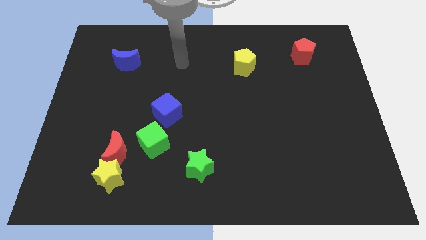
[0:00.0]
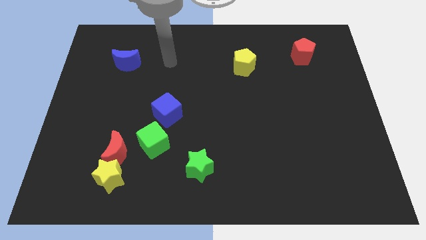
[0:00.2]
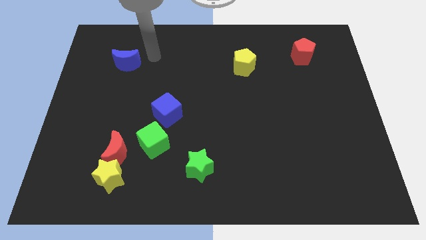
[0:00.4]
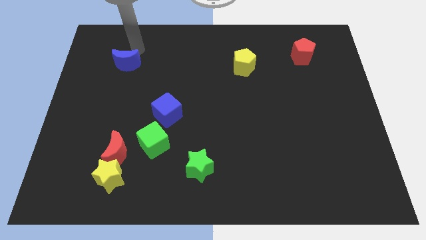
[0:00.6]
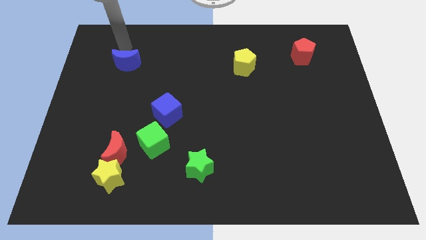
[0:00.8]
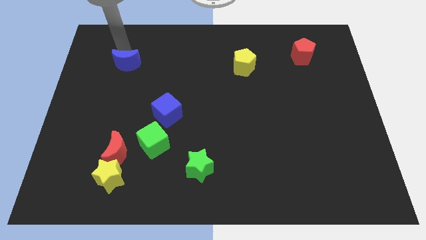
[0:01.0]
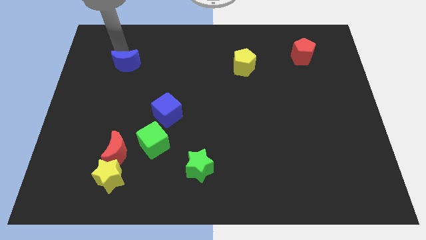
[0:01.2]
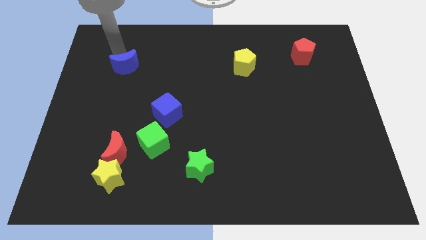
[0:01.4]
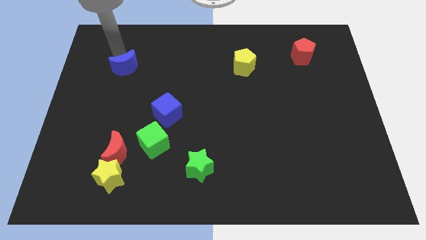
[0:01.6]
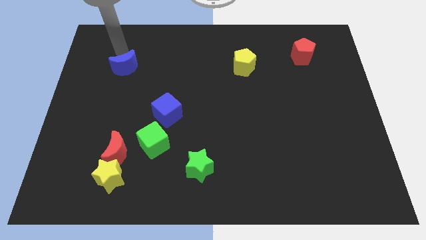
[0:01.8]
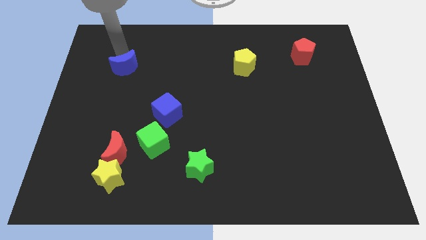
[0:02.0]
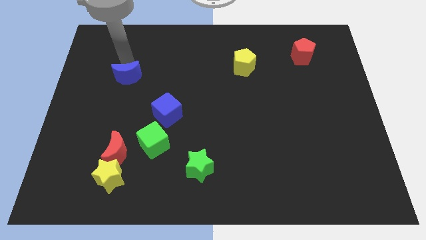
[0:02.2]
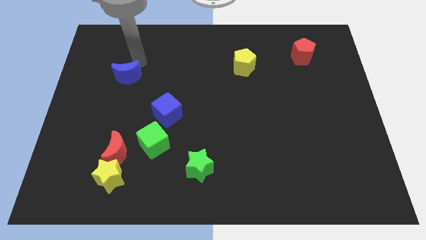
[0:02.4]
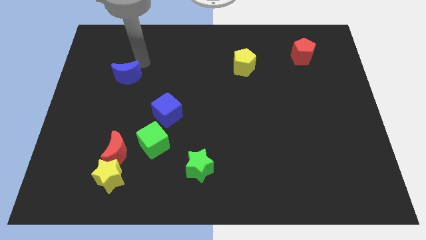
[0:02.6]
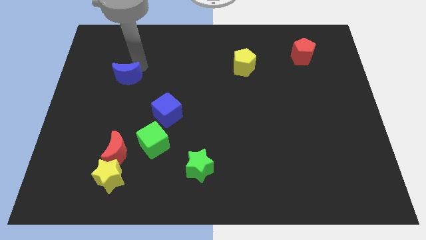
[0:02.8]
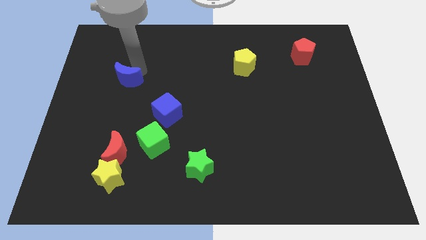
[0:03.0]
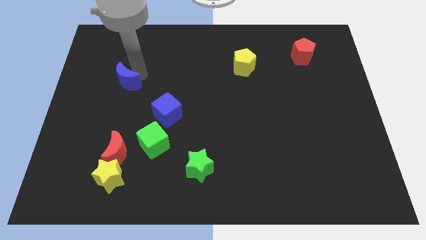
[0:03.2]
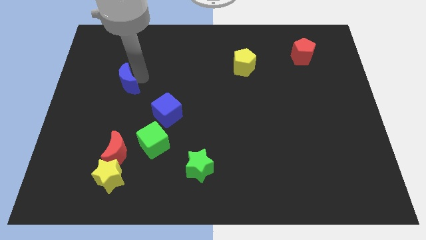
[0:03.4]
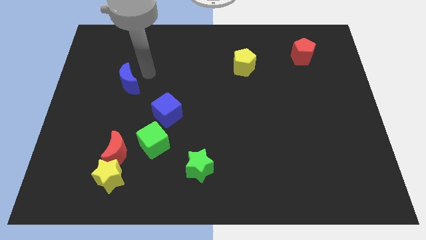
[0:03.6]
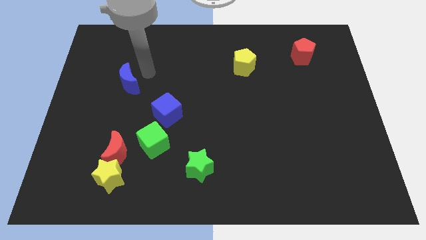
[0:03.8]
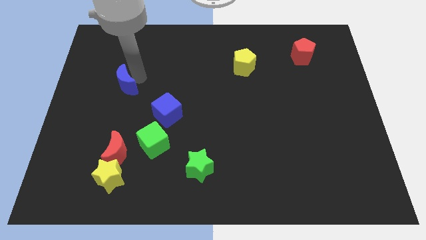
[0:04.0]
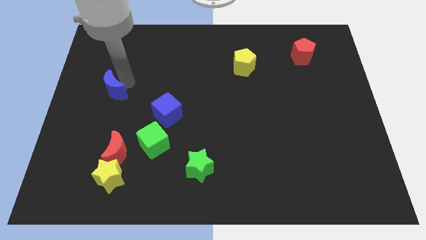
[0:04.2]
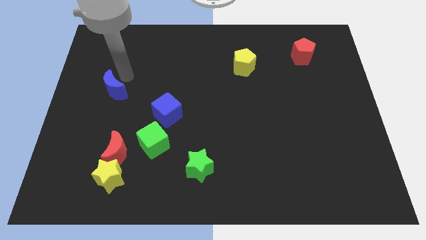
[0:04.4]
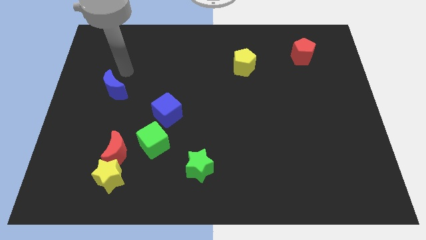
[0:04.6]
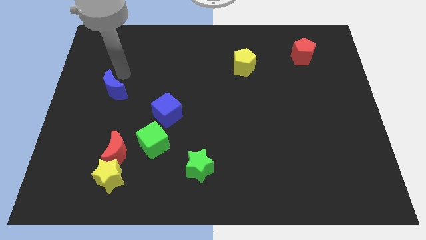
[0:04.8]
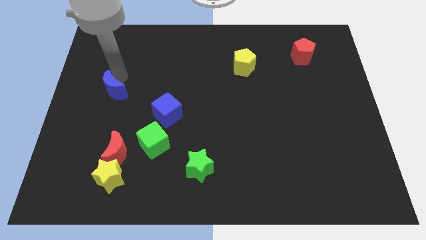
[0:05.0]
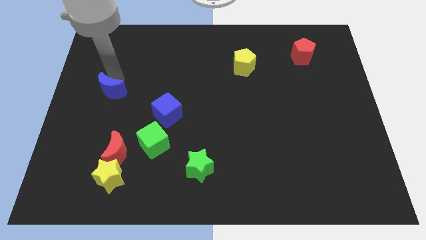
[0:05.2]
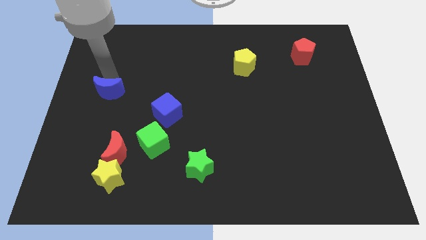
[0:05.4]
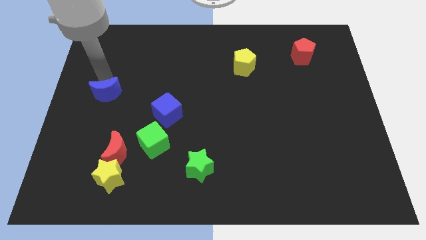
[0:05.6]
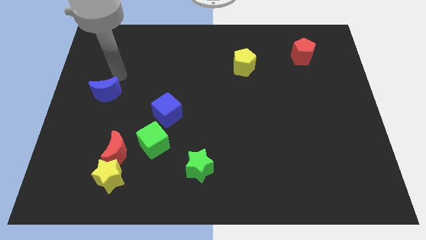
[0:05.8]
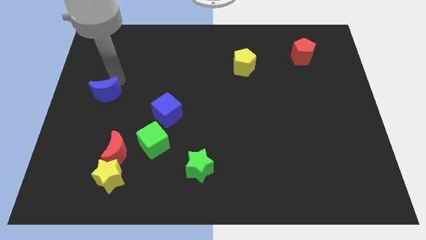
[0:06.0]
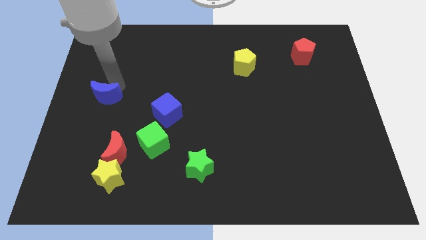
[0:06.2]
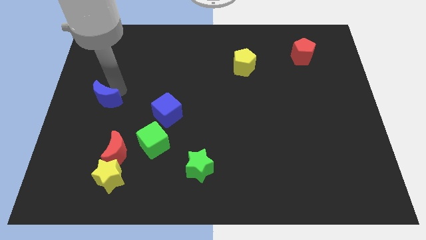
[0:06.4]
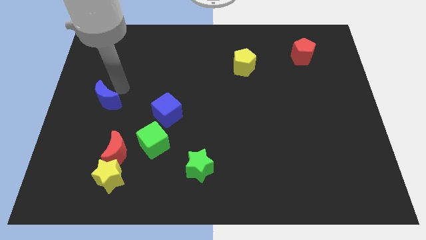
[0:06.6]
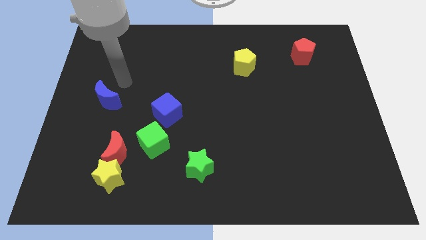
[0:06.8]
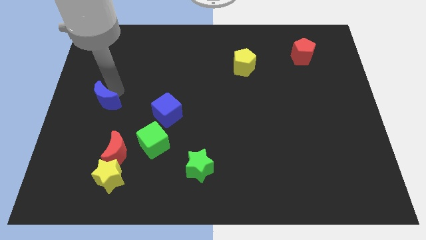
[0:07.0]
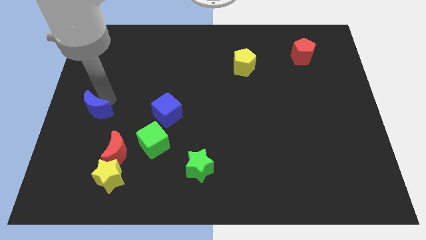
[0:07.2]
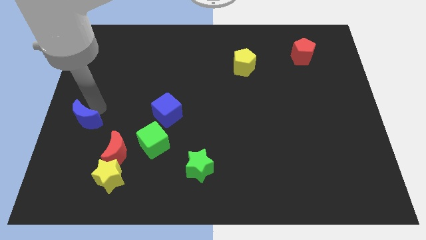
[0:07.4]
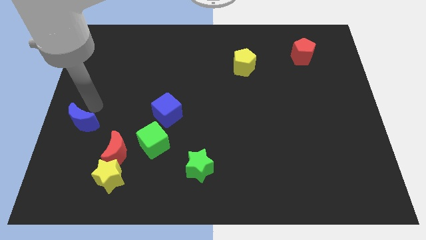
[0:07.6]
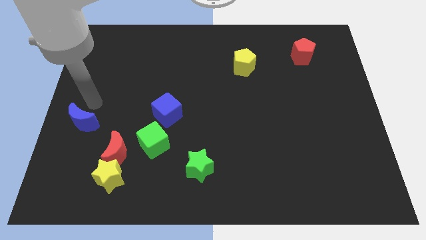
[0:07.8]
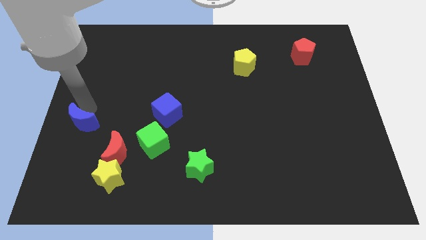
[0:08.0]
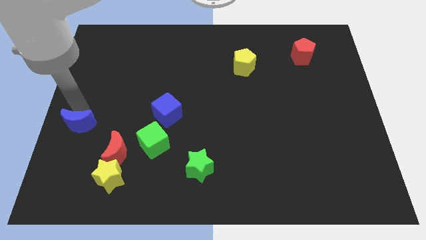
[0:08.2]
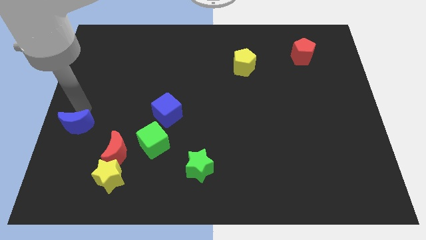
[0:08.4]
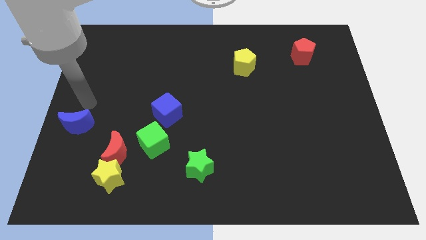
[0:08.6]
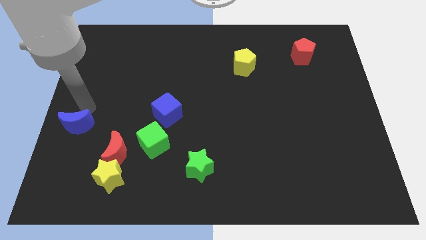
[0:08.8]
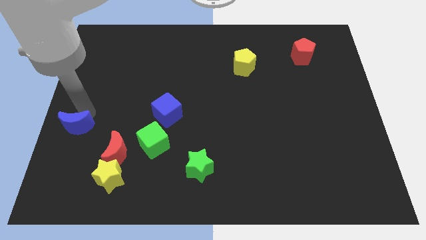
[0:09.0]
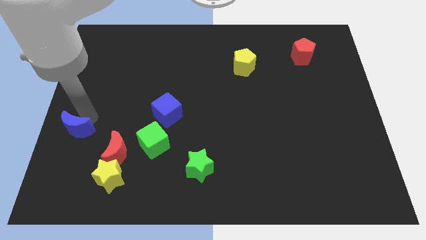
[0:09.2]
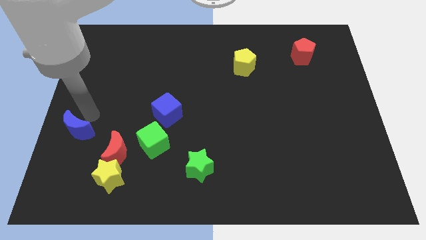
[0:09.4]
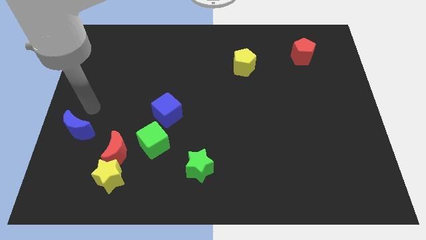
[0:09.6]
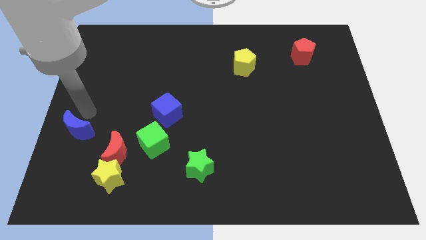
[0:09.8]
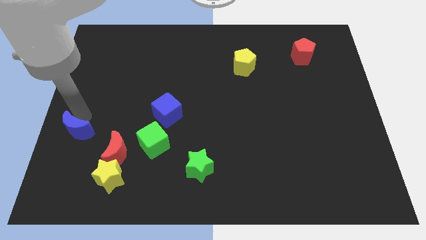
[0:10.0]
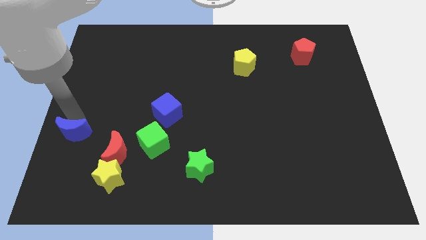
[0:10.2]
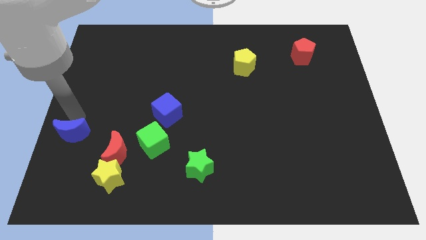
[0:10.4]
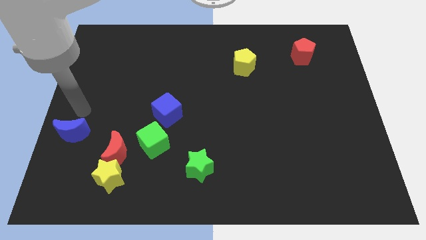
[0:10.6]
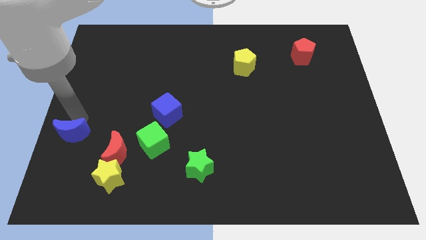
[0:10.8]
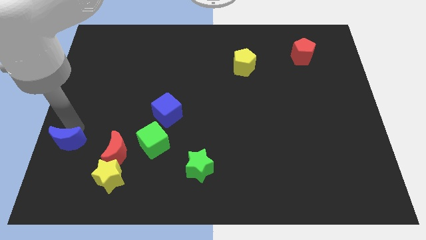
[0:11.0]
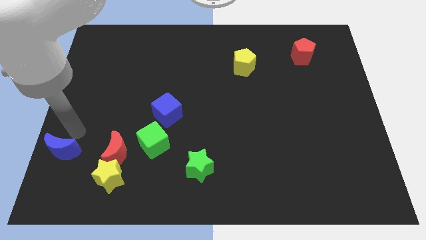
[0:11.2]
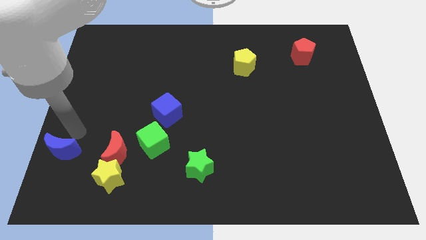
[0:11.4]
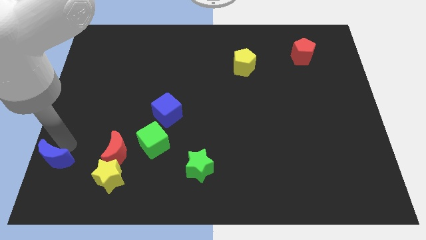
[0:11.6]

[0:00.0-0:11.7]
move the blue moon to the bottom left of the board

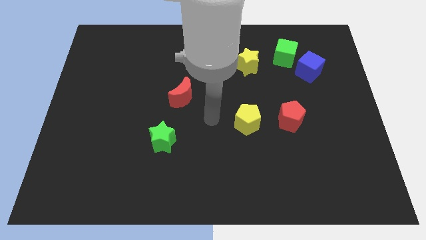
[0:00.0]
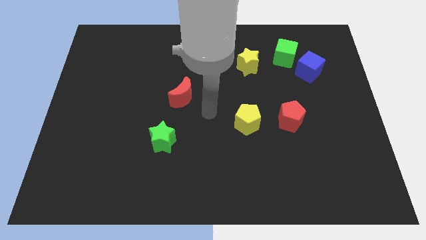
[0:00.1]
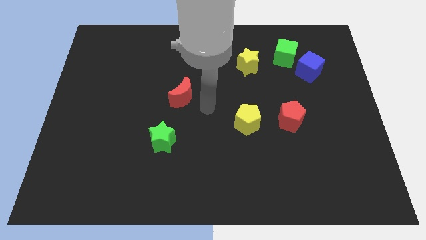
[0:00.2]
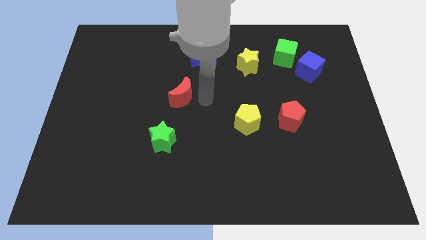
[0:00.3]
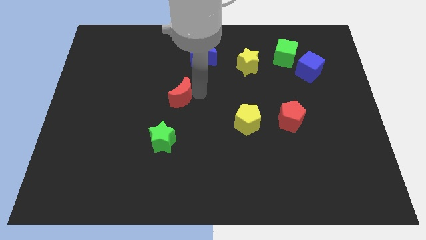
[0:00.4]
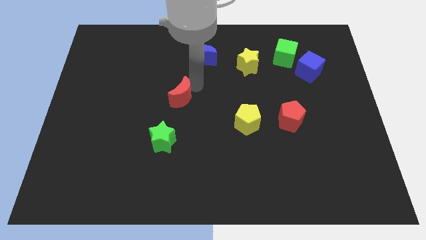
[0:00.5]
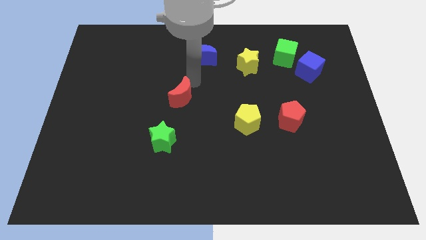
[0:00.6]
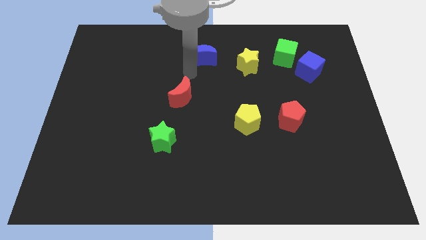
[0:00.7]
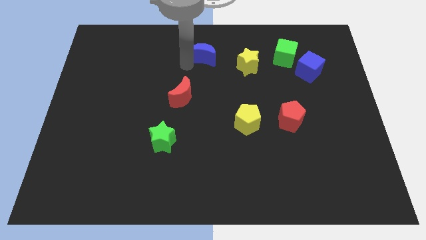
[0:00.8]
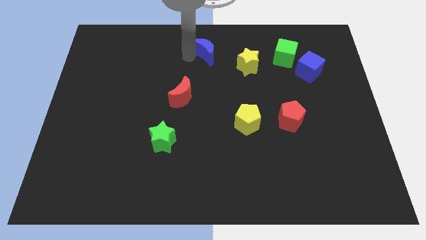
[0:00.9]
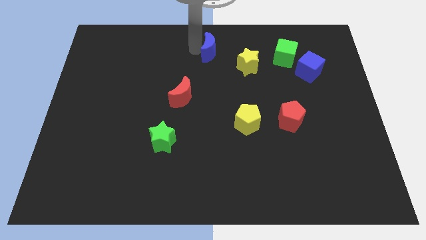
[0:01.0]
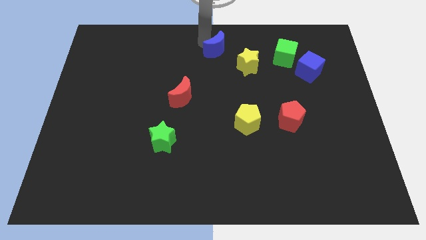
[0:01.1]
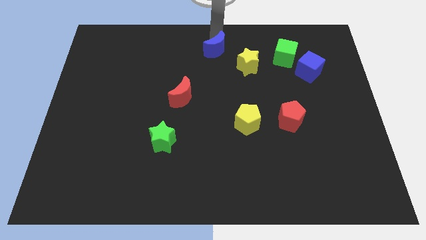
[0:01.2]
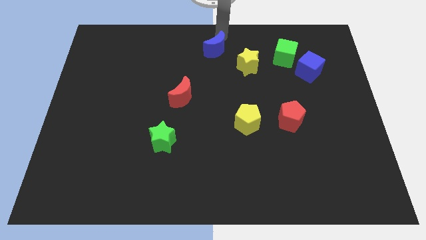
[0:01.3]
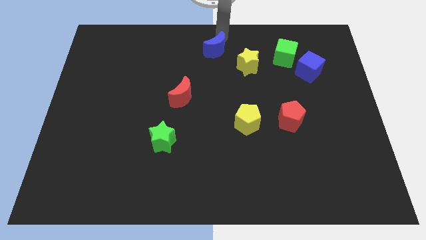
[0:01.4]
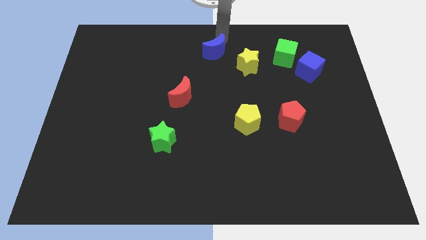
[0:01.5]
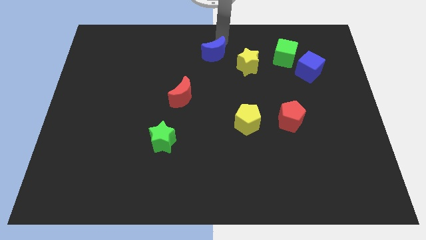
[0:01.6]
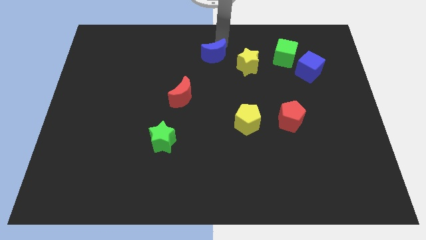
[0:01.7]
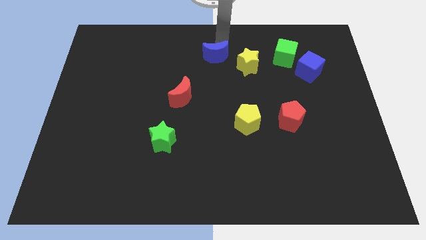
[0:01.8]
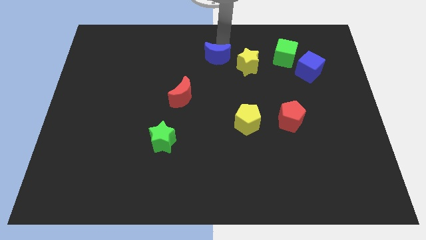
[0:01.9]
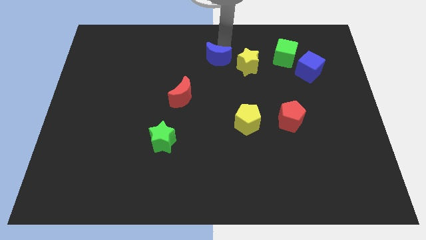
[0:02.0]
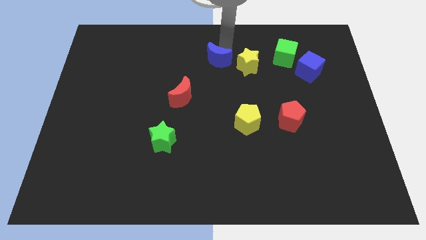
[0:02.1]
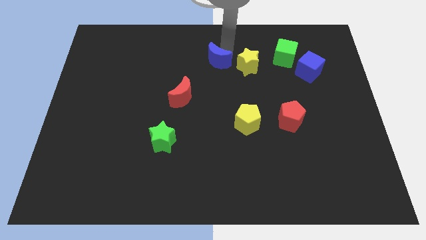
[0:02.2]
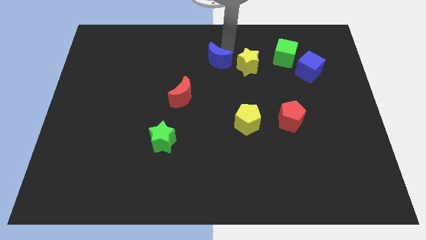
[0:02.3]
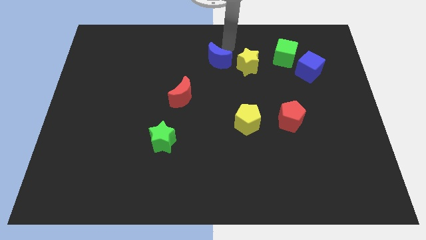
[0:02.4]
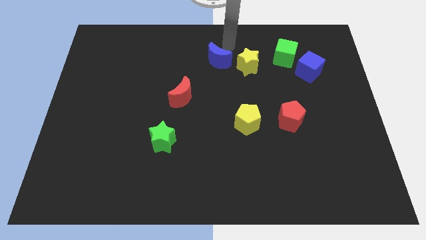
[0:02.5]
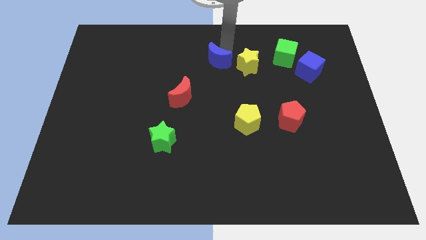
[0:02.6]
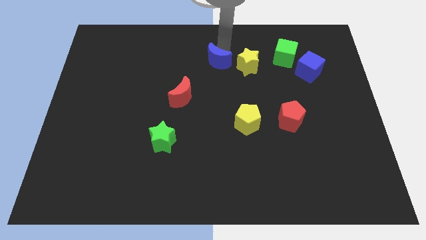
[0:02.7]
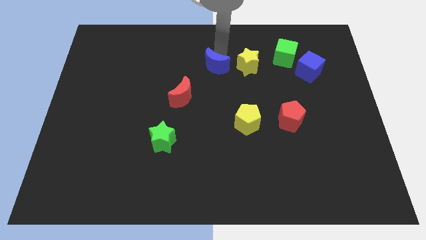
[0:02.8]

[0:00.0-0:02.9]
push the blue moon to the middle of the board
